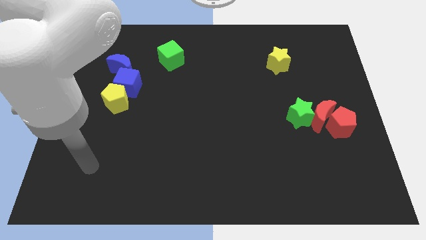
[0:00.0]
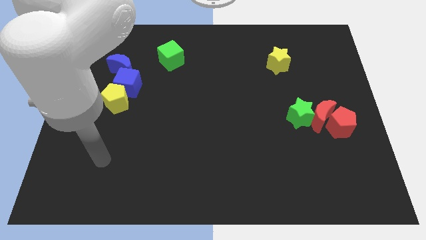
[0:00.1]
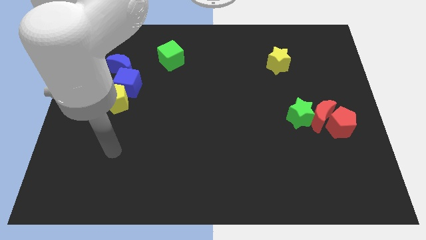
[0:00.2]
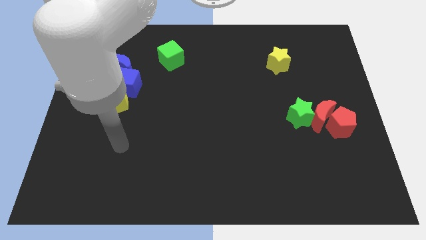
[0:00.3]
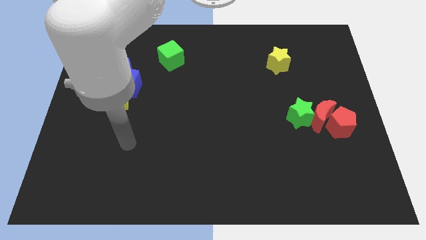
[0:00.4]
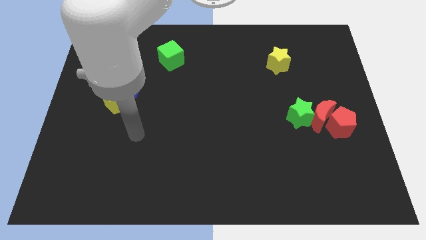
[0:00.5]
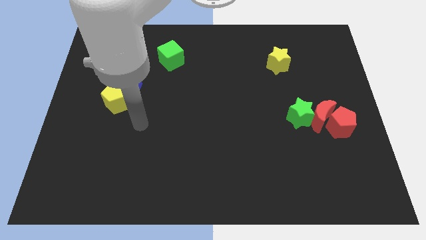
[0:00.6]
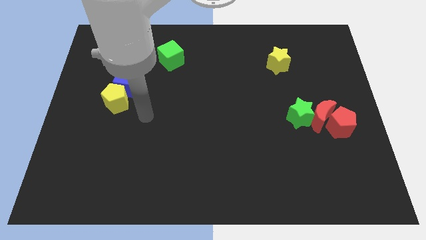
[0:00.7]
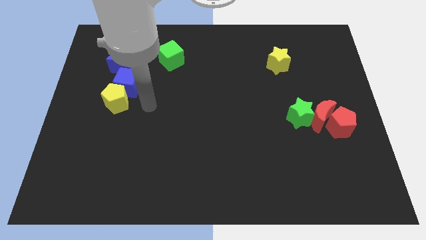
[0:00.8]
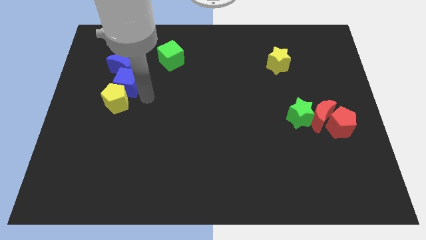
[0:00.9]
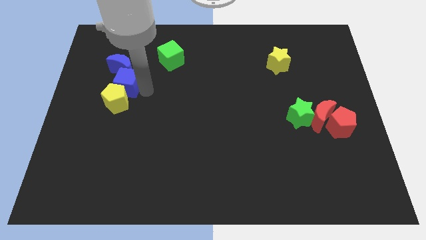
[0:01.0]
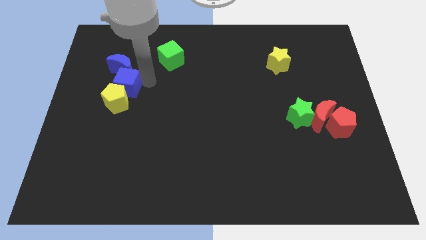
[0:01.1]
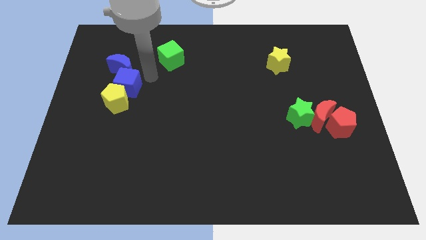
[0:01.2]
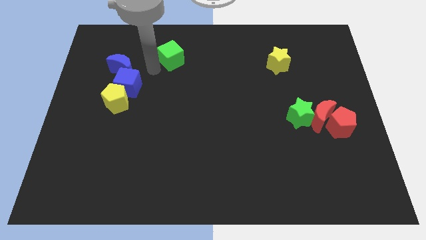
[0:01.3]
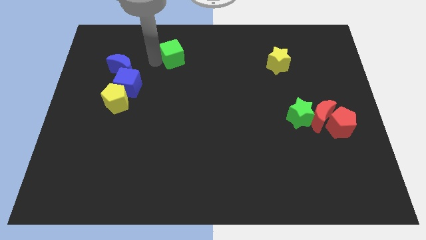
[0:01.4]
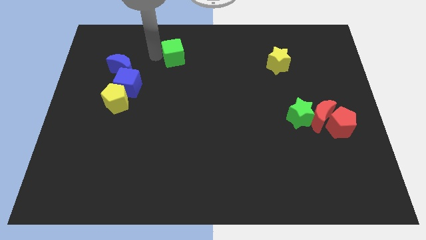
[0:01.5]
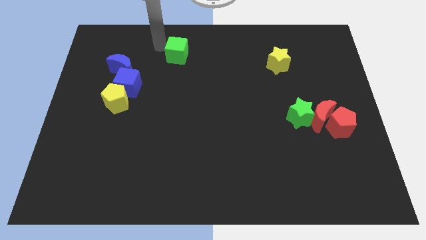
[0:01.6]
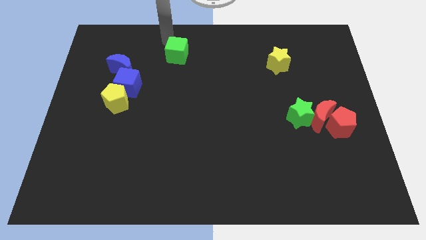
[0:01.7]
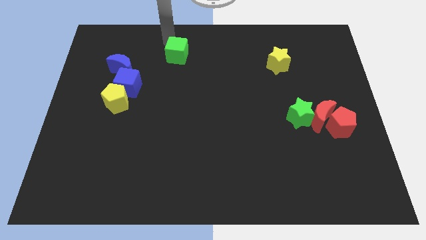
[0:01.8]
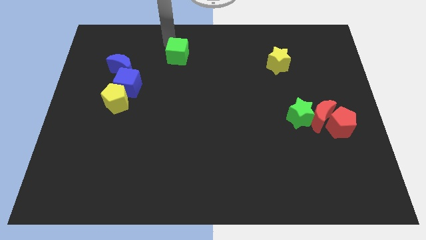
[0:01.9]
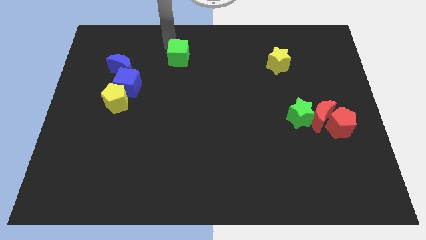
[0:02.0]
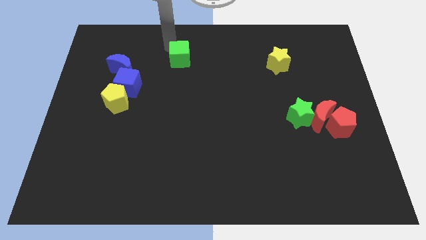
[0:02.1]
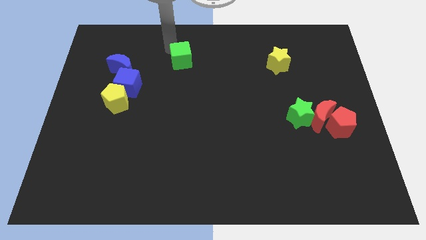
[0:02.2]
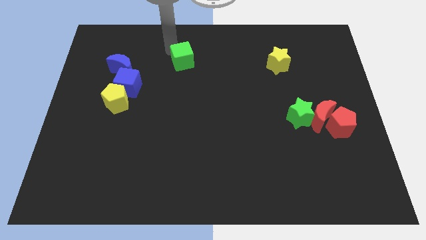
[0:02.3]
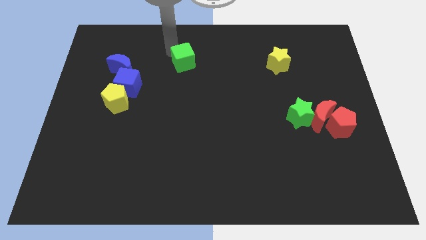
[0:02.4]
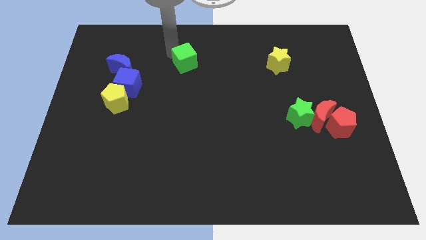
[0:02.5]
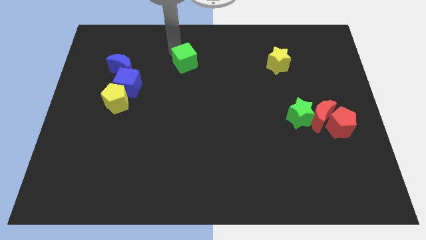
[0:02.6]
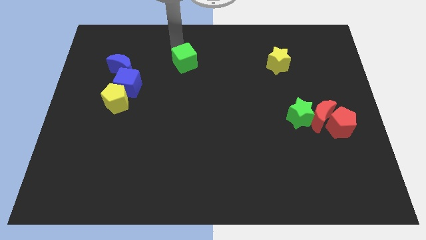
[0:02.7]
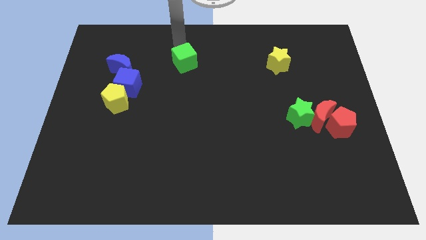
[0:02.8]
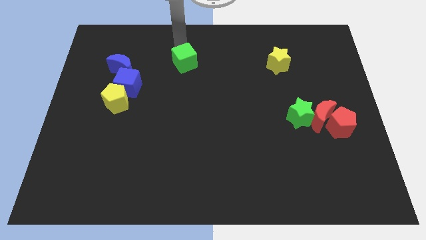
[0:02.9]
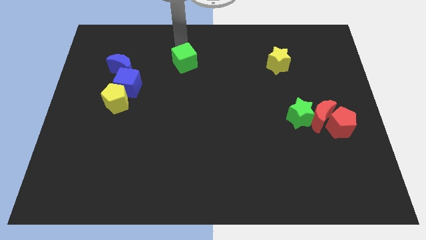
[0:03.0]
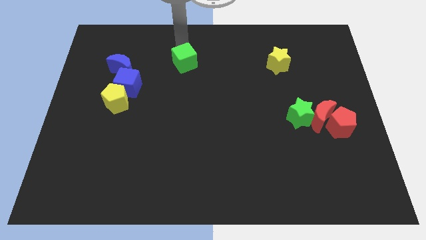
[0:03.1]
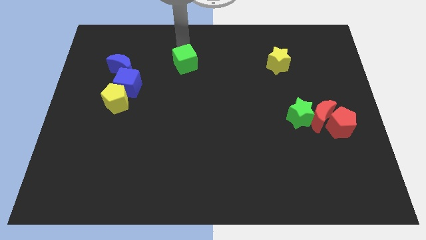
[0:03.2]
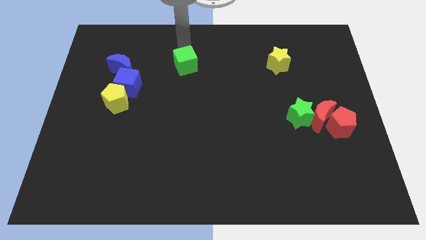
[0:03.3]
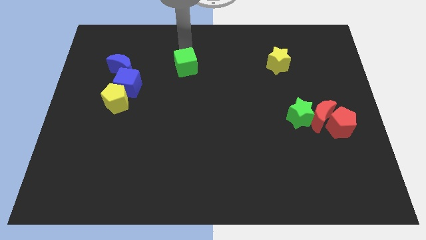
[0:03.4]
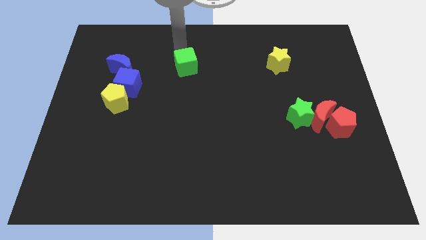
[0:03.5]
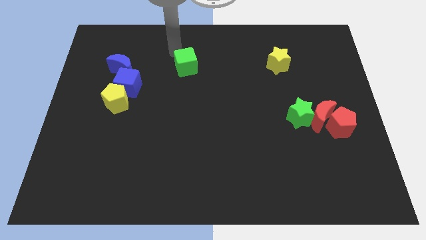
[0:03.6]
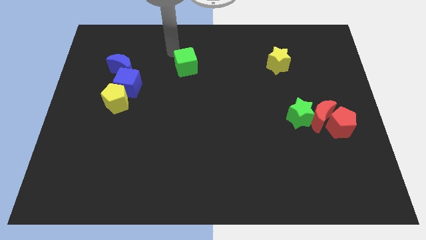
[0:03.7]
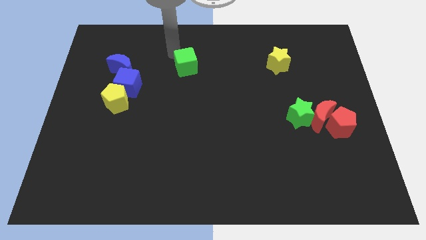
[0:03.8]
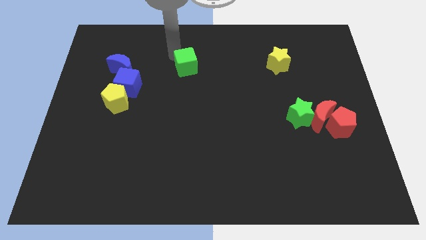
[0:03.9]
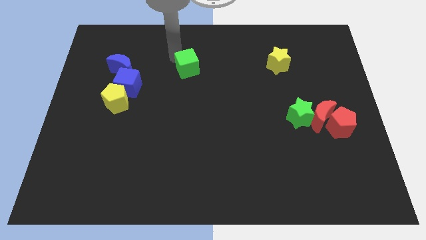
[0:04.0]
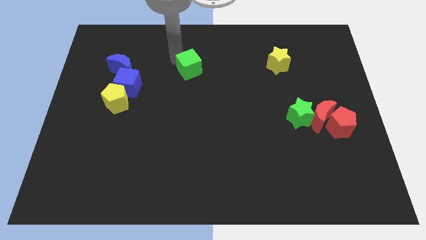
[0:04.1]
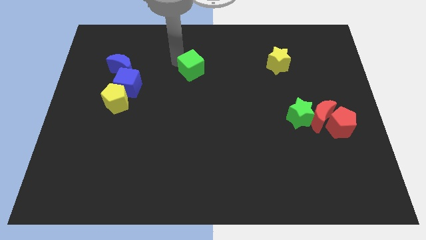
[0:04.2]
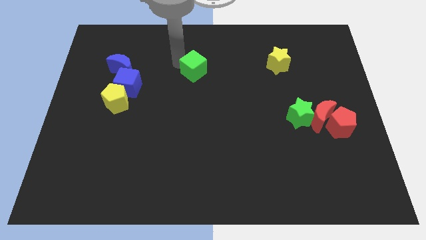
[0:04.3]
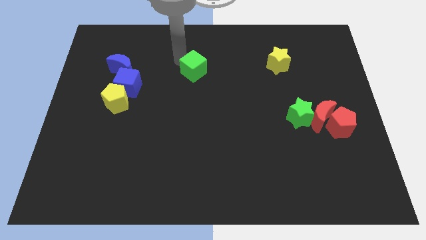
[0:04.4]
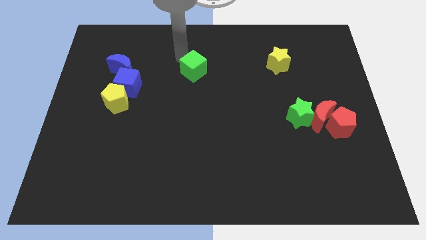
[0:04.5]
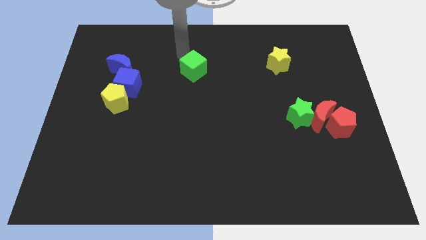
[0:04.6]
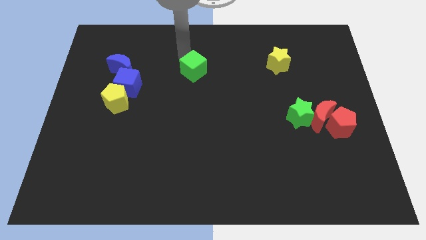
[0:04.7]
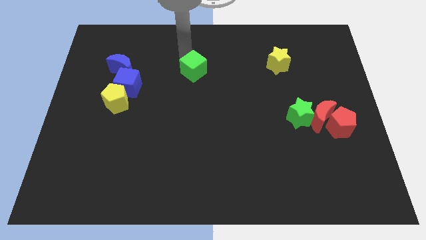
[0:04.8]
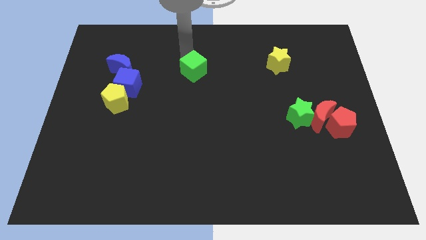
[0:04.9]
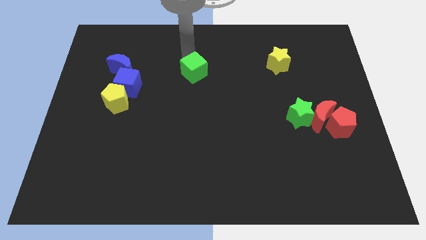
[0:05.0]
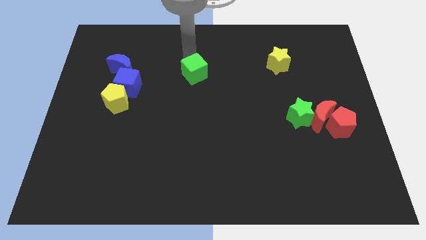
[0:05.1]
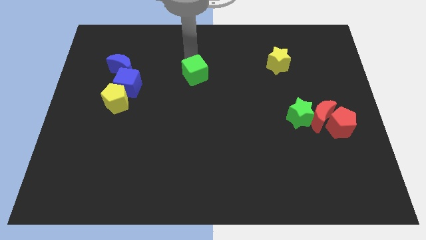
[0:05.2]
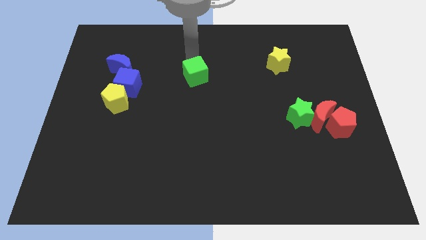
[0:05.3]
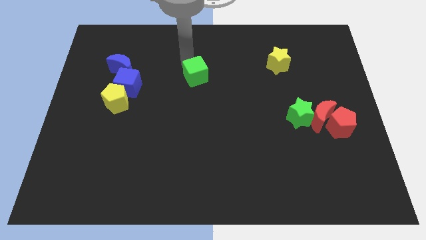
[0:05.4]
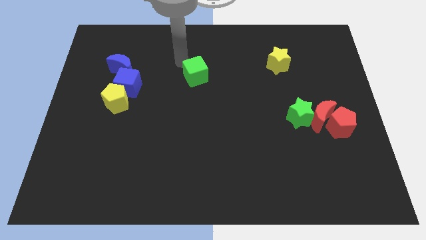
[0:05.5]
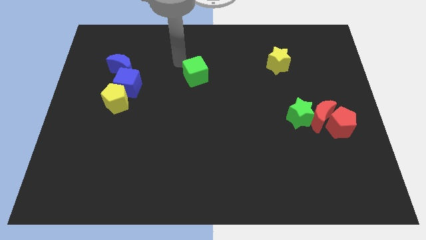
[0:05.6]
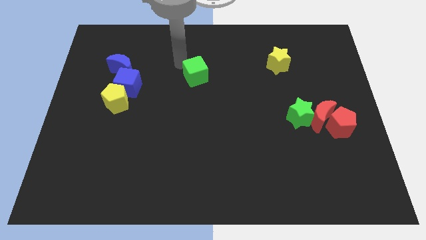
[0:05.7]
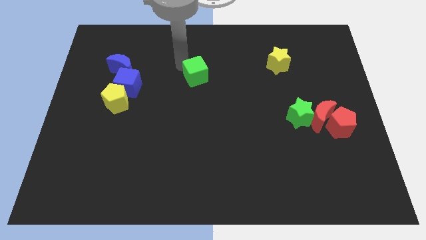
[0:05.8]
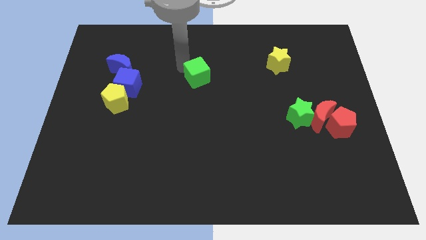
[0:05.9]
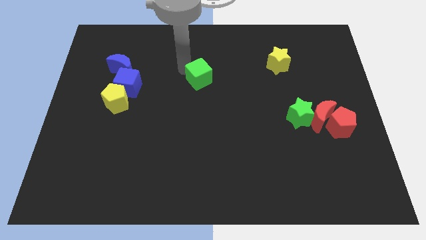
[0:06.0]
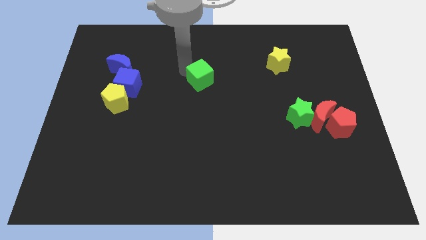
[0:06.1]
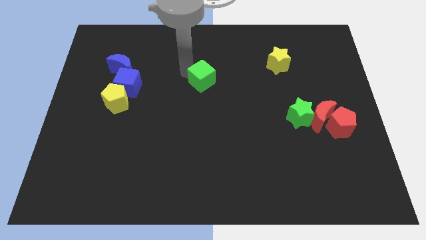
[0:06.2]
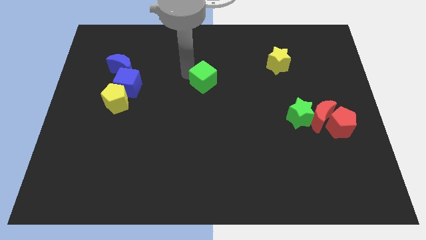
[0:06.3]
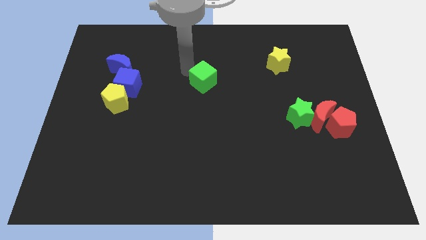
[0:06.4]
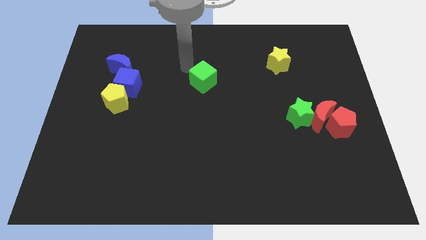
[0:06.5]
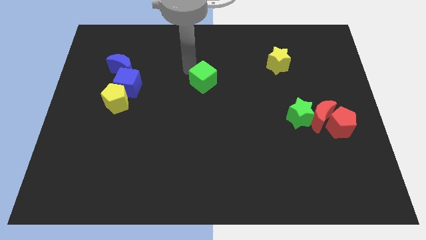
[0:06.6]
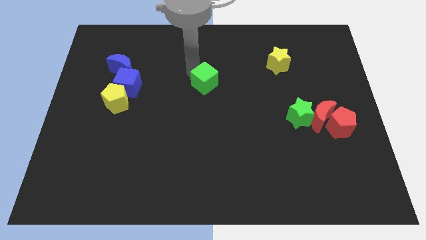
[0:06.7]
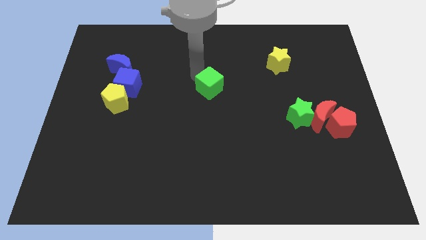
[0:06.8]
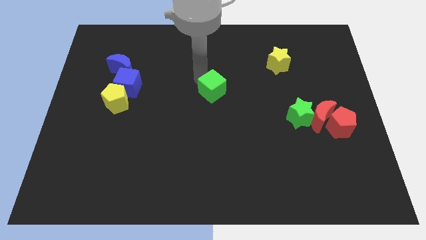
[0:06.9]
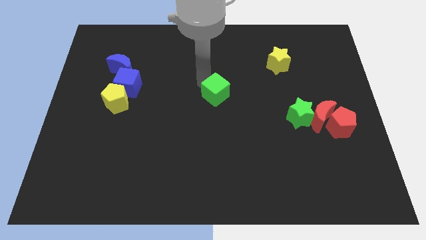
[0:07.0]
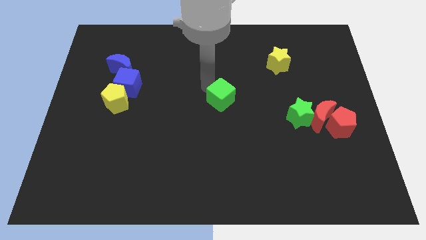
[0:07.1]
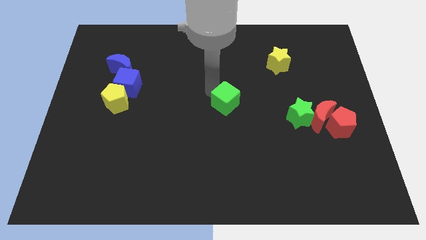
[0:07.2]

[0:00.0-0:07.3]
slide the green cube down and right diagonally

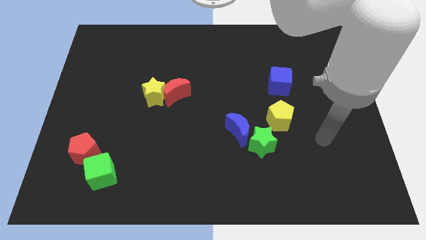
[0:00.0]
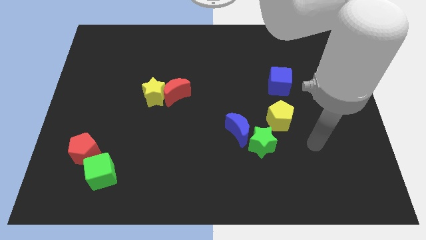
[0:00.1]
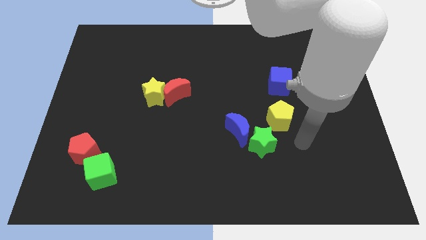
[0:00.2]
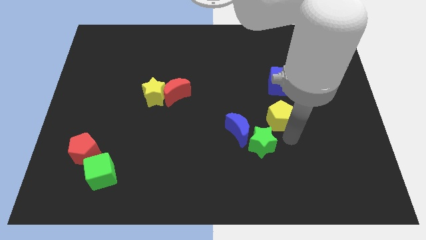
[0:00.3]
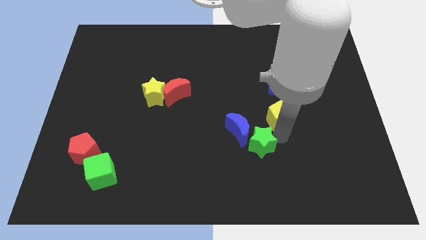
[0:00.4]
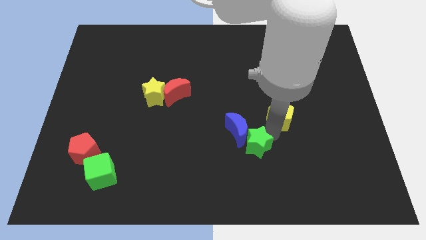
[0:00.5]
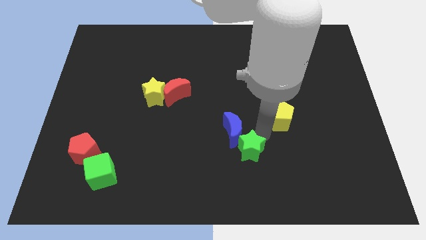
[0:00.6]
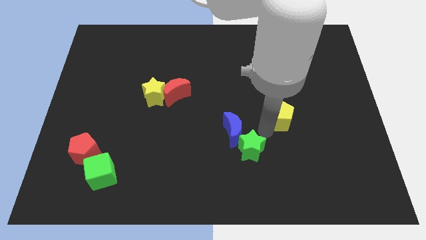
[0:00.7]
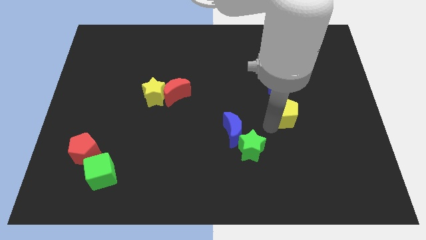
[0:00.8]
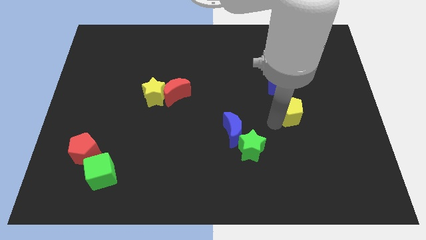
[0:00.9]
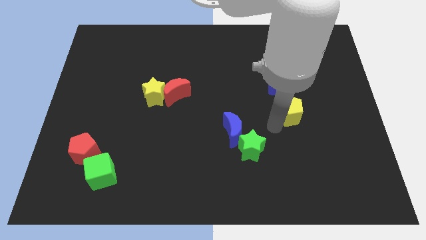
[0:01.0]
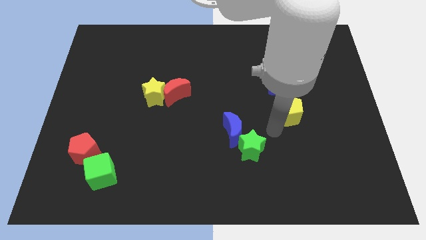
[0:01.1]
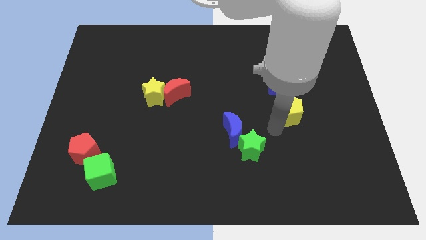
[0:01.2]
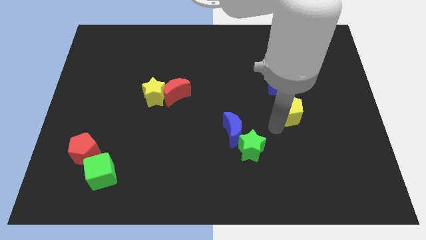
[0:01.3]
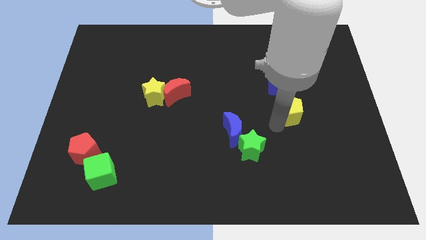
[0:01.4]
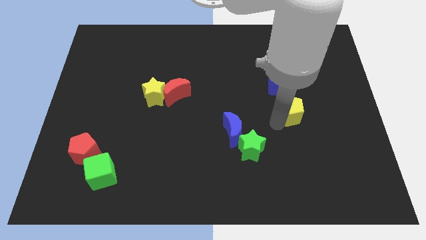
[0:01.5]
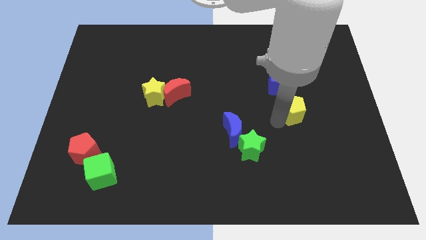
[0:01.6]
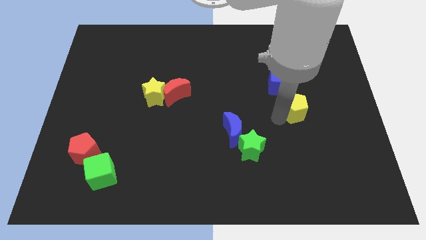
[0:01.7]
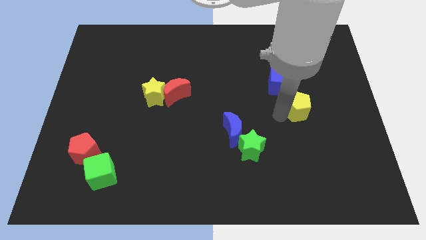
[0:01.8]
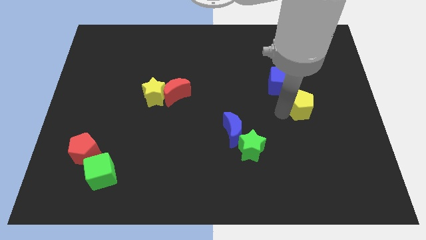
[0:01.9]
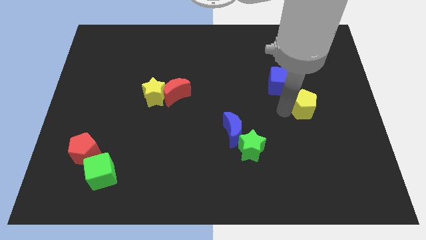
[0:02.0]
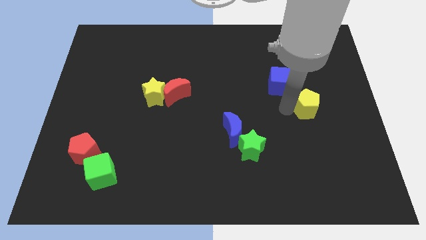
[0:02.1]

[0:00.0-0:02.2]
slide the yellow pentagon a bit up and to the right
